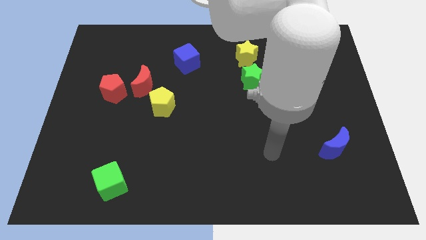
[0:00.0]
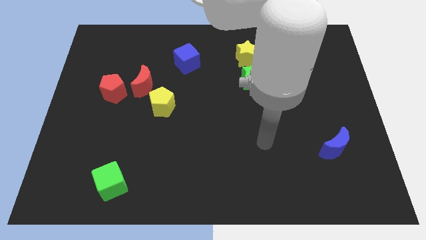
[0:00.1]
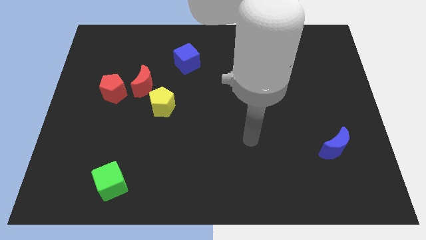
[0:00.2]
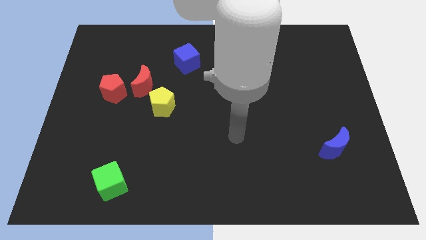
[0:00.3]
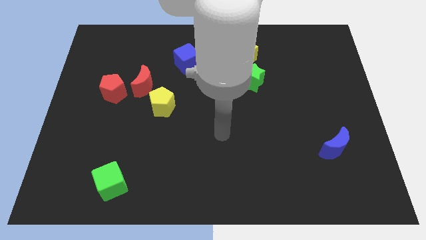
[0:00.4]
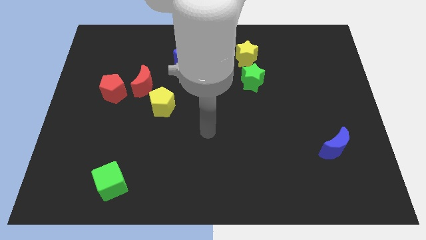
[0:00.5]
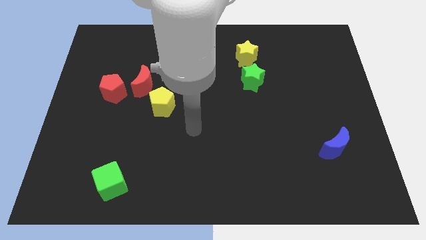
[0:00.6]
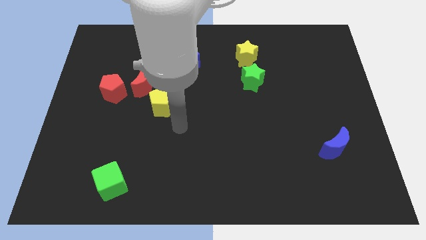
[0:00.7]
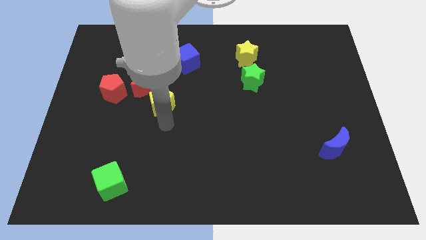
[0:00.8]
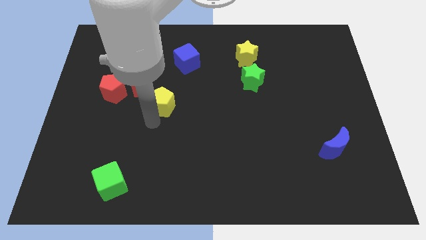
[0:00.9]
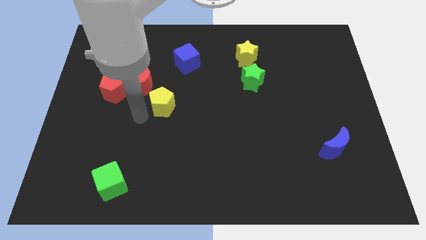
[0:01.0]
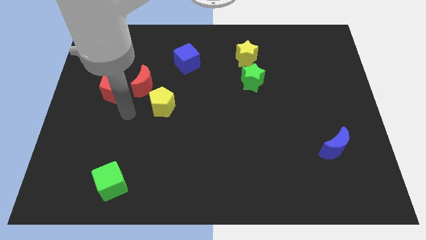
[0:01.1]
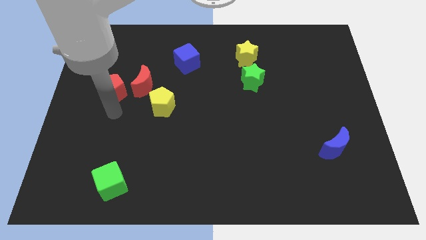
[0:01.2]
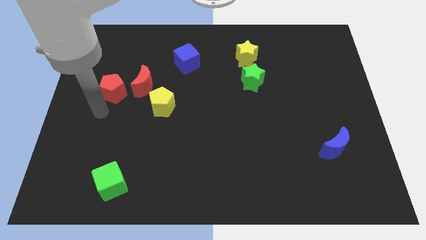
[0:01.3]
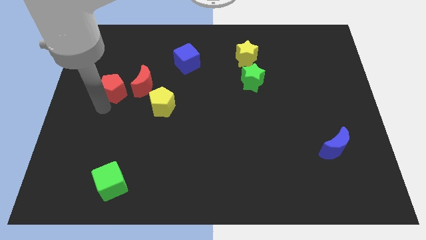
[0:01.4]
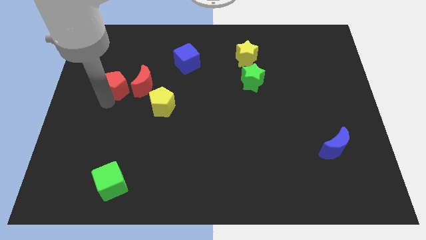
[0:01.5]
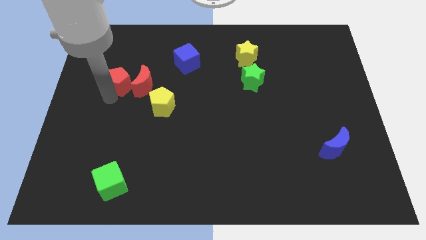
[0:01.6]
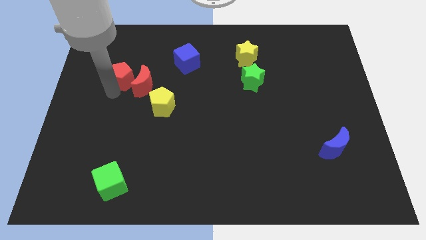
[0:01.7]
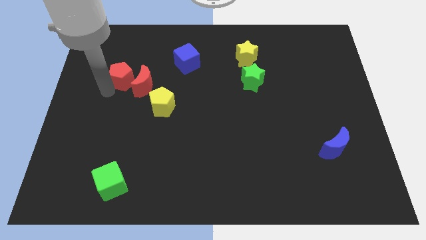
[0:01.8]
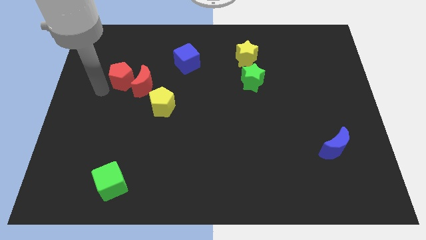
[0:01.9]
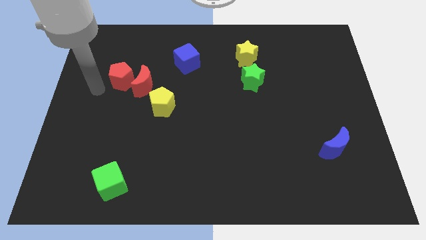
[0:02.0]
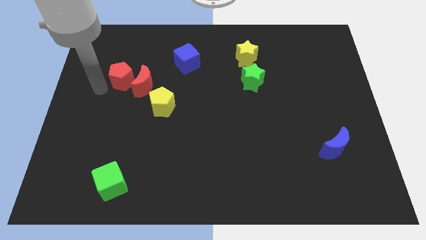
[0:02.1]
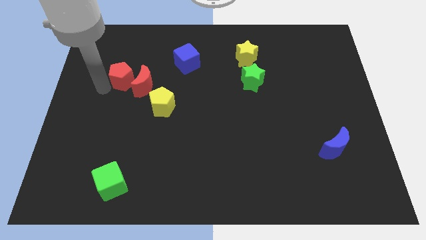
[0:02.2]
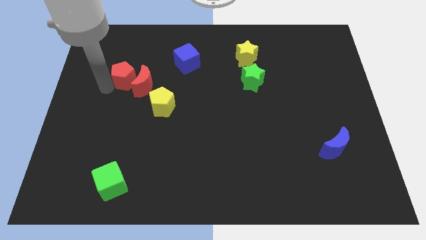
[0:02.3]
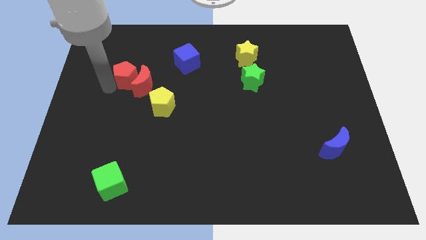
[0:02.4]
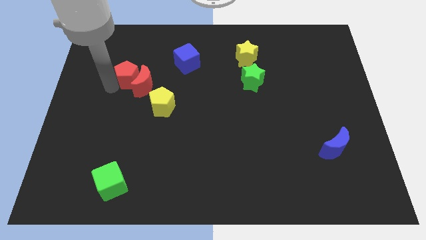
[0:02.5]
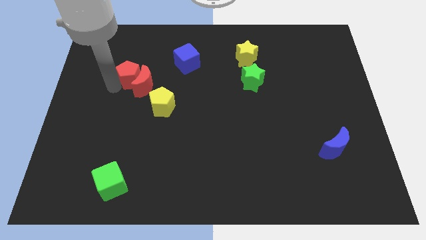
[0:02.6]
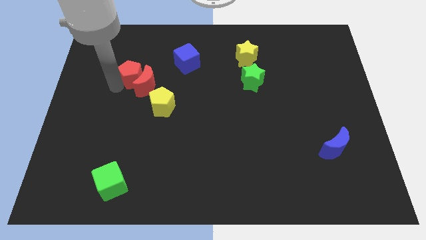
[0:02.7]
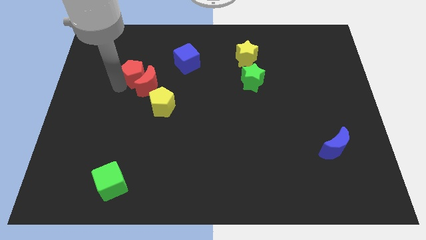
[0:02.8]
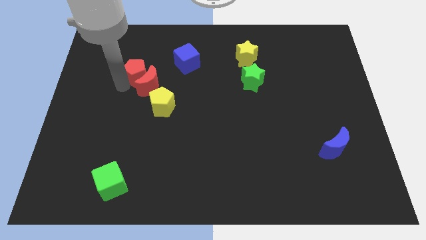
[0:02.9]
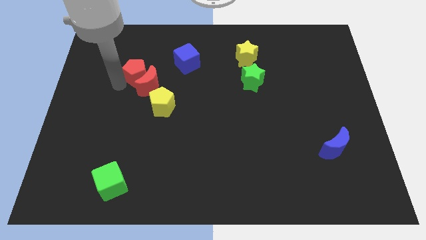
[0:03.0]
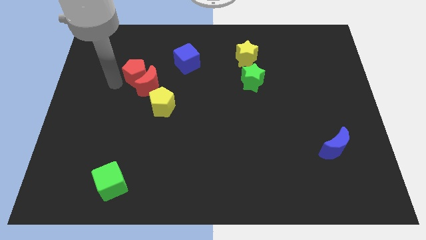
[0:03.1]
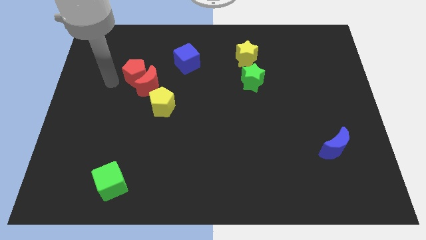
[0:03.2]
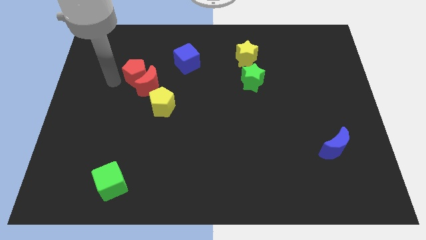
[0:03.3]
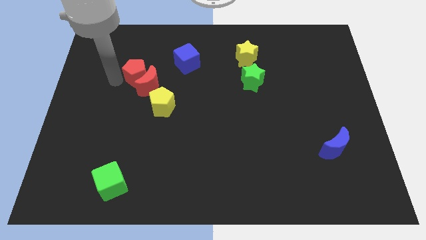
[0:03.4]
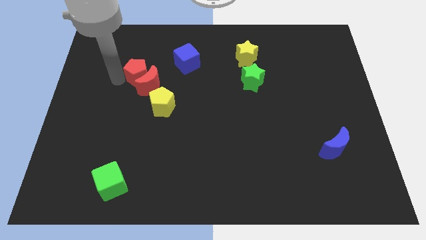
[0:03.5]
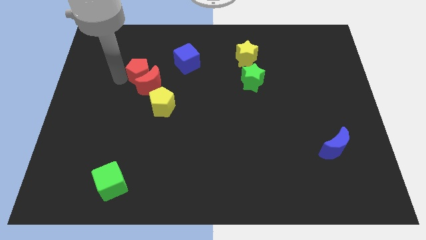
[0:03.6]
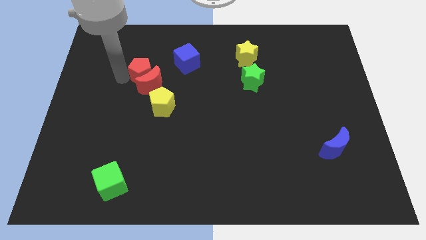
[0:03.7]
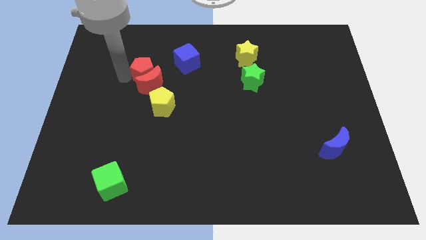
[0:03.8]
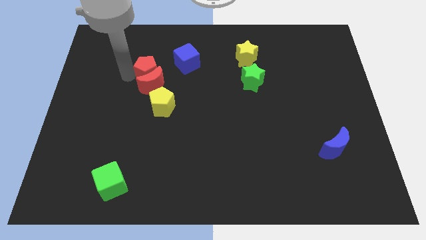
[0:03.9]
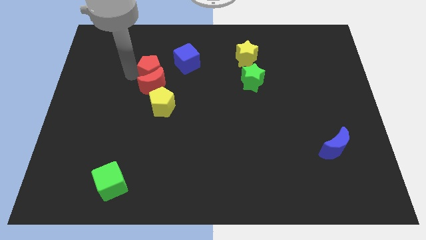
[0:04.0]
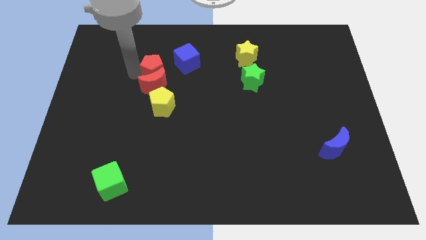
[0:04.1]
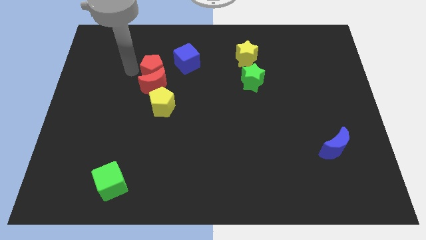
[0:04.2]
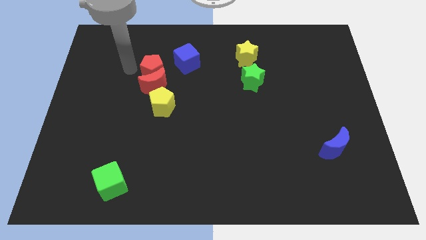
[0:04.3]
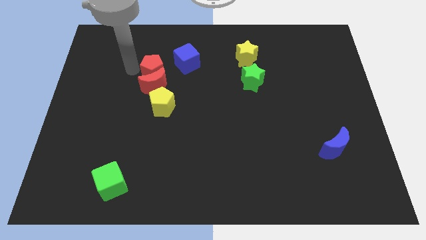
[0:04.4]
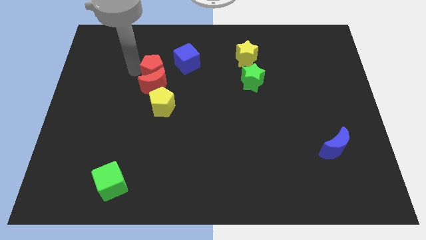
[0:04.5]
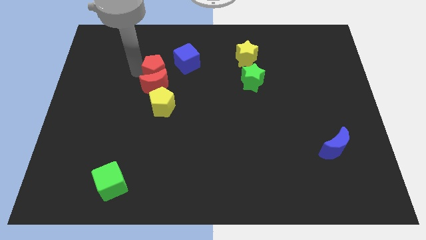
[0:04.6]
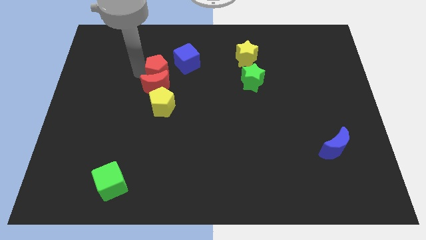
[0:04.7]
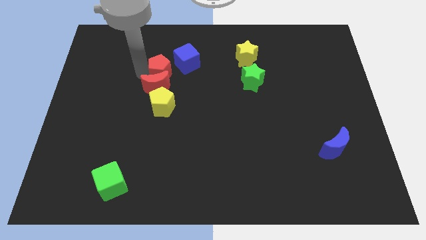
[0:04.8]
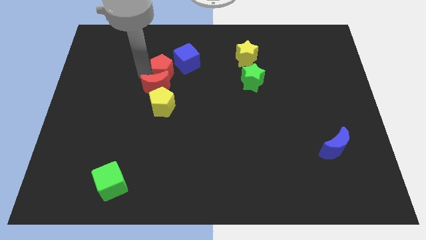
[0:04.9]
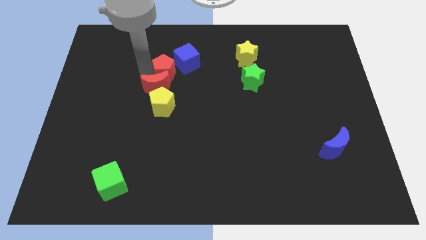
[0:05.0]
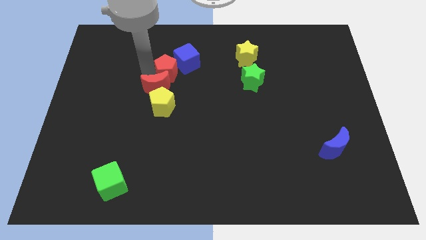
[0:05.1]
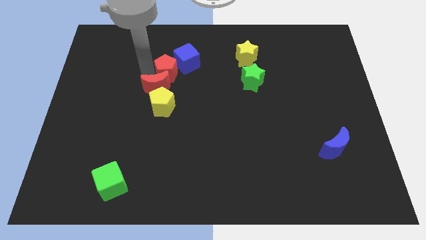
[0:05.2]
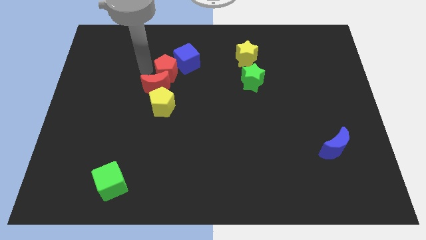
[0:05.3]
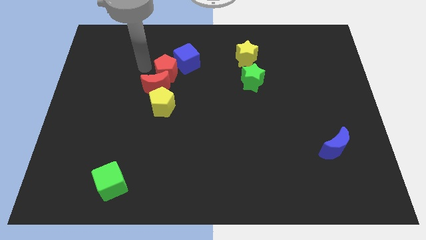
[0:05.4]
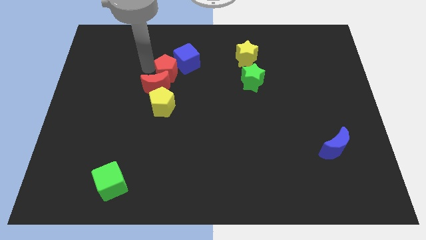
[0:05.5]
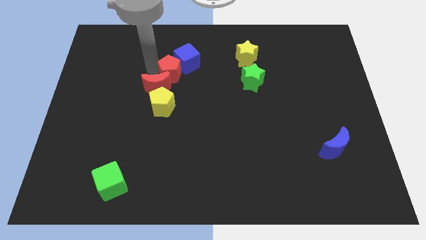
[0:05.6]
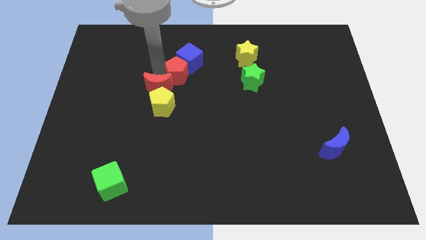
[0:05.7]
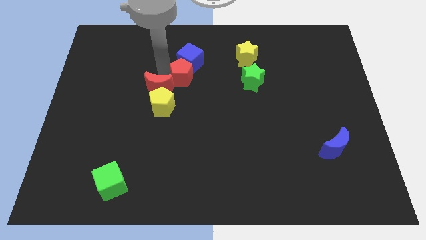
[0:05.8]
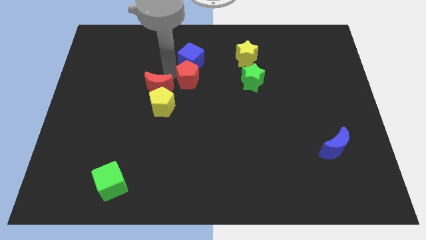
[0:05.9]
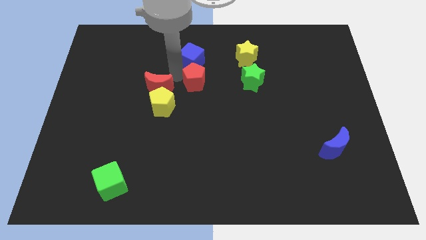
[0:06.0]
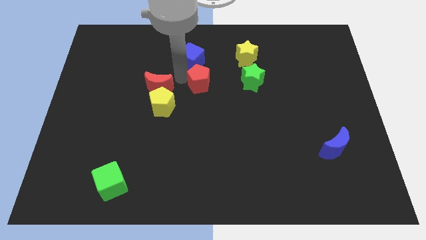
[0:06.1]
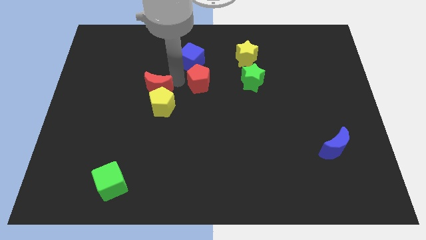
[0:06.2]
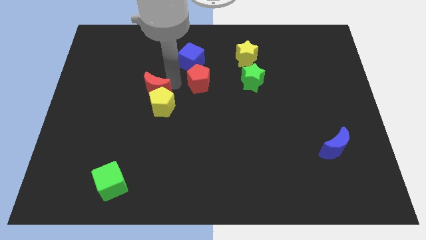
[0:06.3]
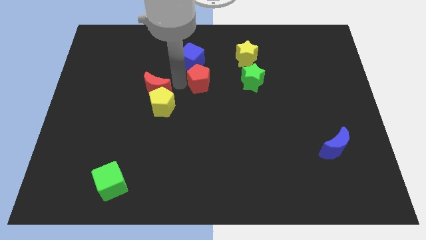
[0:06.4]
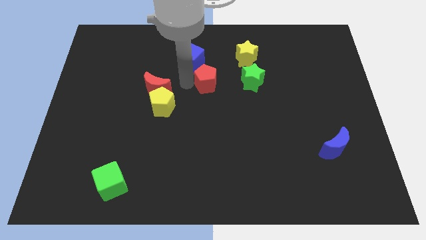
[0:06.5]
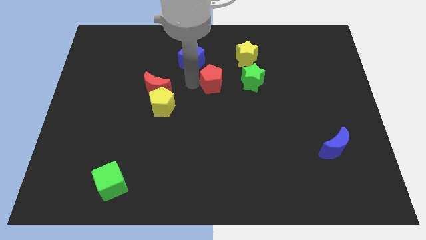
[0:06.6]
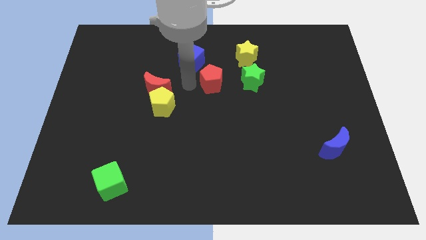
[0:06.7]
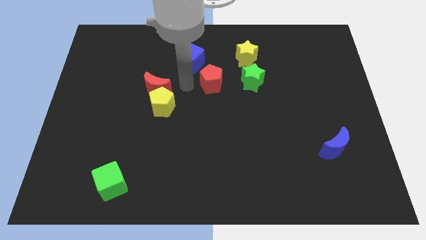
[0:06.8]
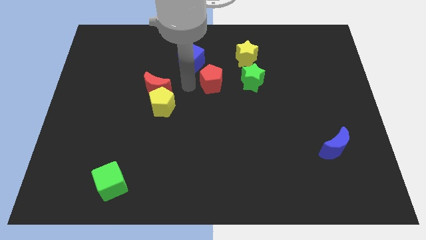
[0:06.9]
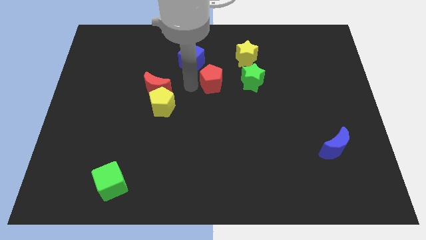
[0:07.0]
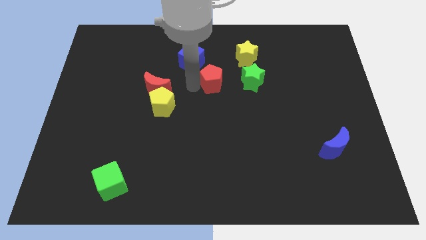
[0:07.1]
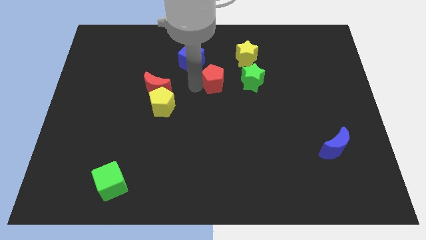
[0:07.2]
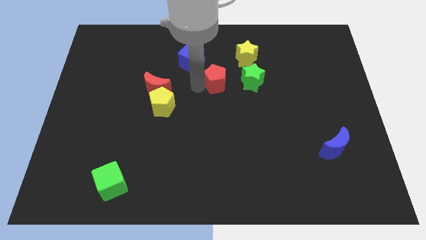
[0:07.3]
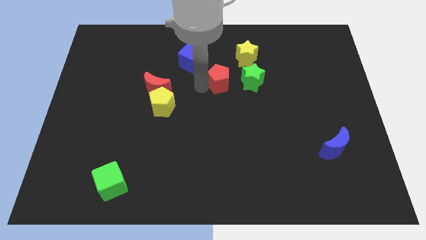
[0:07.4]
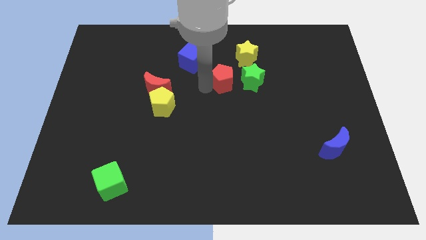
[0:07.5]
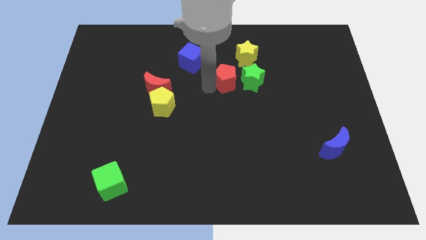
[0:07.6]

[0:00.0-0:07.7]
move the red pentagon close to the green star
